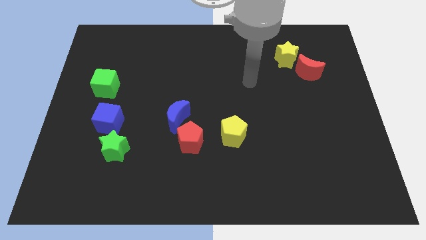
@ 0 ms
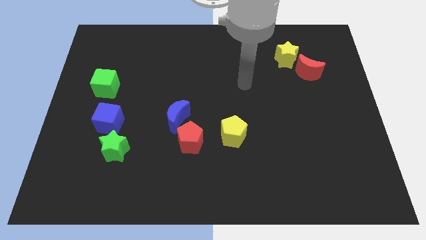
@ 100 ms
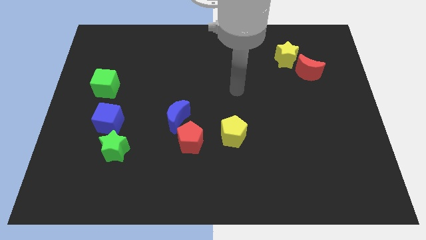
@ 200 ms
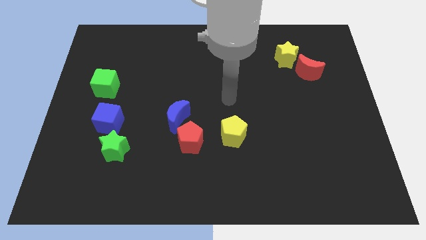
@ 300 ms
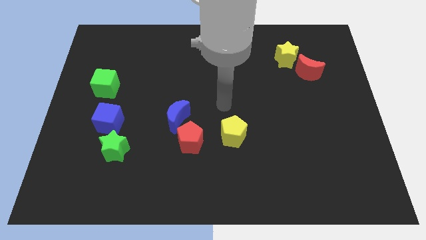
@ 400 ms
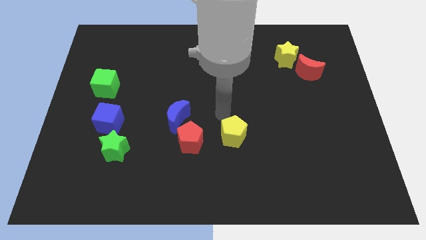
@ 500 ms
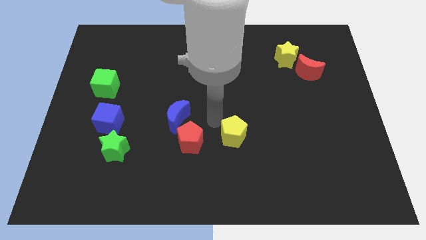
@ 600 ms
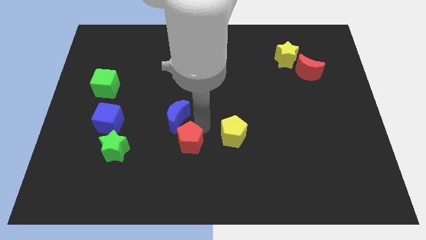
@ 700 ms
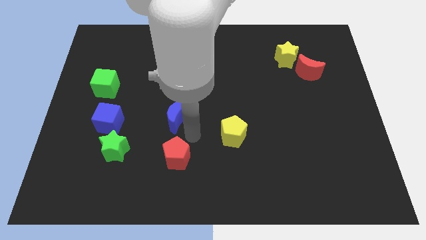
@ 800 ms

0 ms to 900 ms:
separate the blue moon from the red pentagon

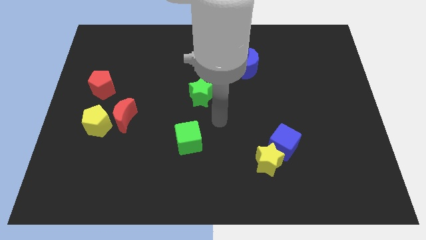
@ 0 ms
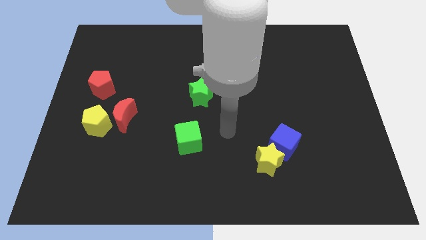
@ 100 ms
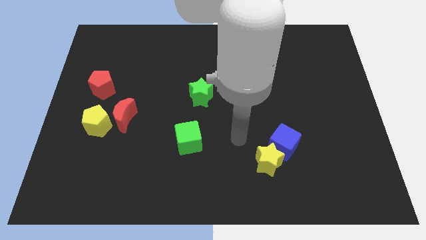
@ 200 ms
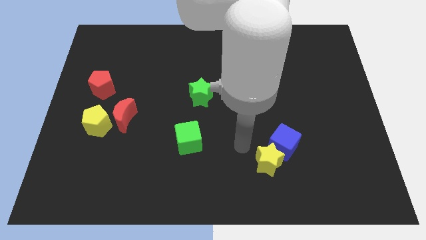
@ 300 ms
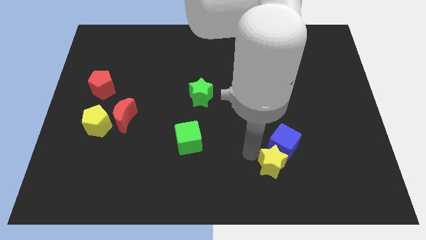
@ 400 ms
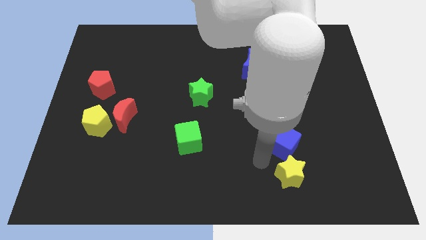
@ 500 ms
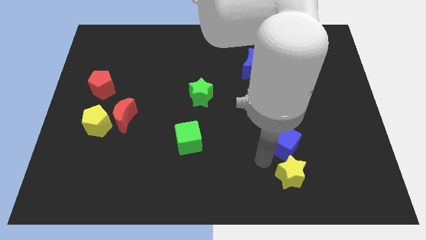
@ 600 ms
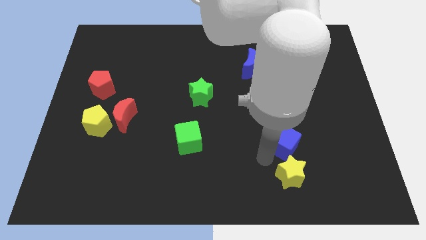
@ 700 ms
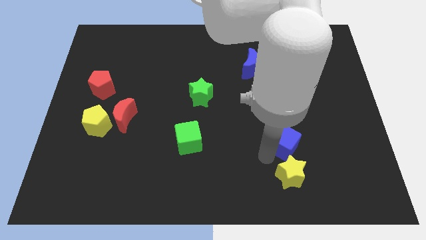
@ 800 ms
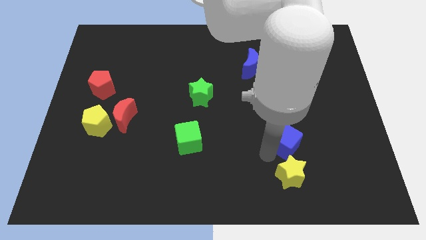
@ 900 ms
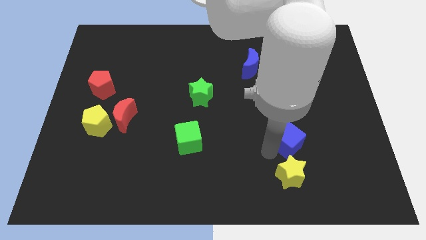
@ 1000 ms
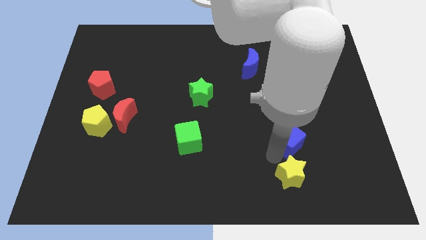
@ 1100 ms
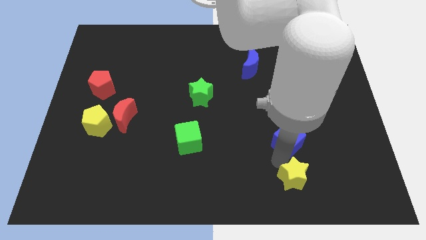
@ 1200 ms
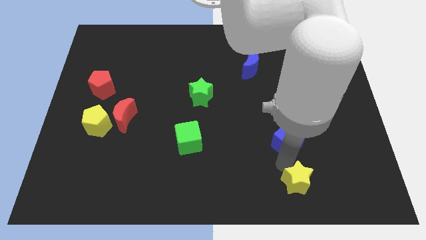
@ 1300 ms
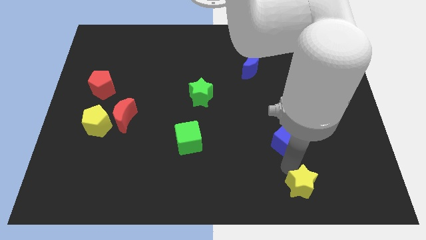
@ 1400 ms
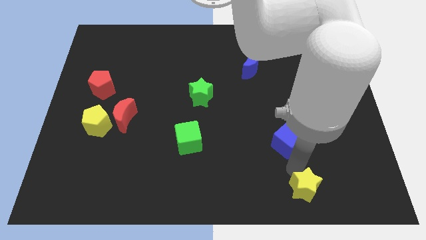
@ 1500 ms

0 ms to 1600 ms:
move the blue cube away from the yellow star

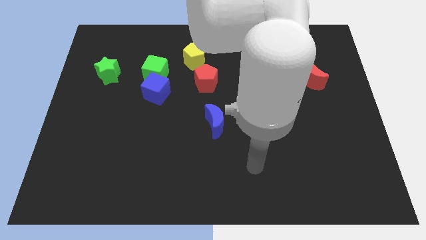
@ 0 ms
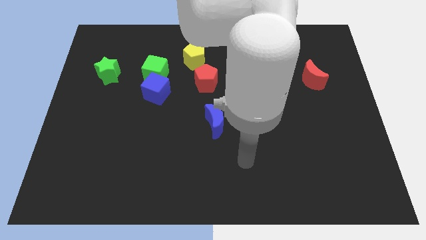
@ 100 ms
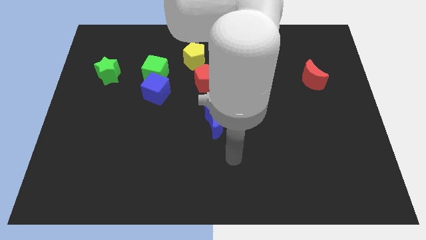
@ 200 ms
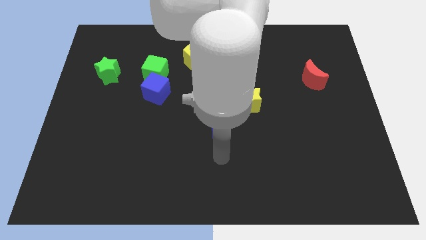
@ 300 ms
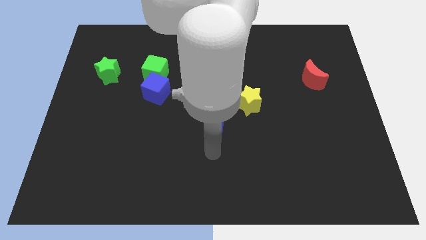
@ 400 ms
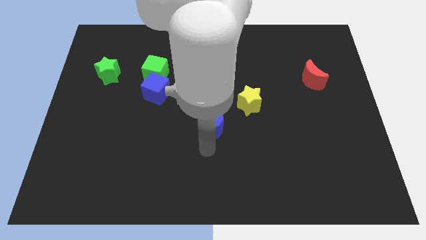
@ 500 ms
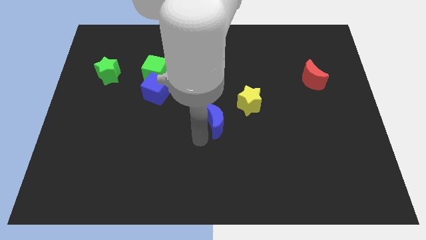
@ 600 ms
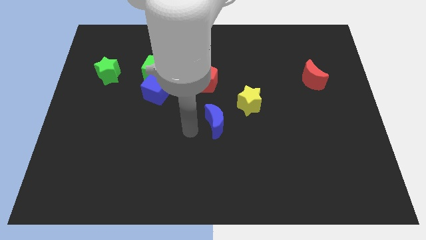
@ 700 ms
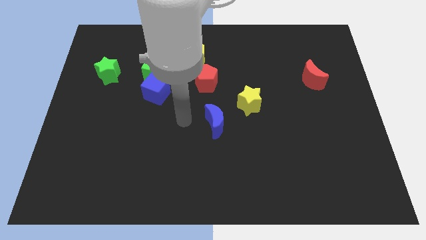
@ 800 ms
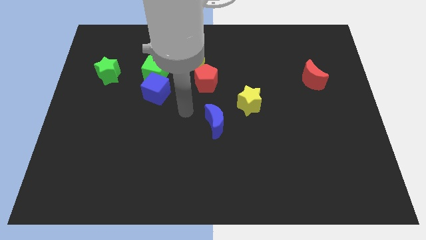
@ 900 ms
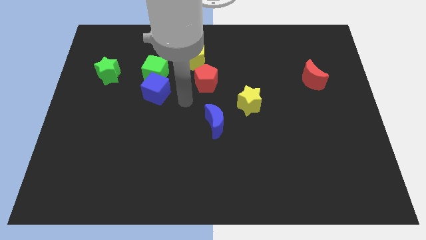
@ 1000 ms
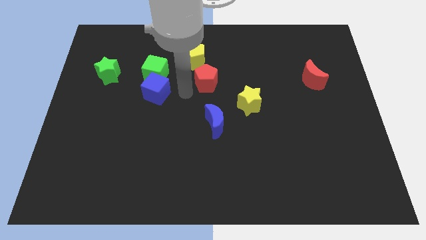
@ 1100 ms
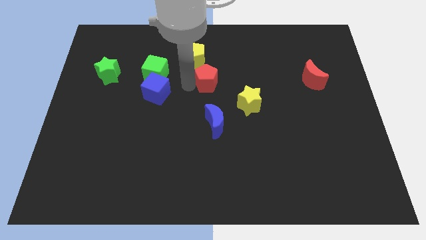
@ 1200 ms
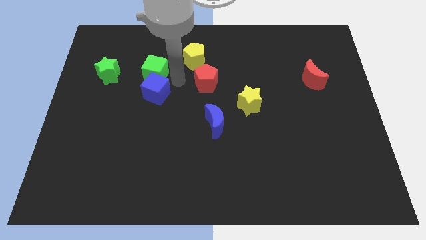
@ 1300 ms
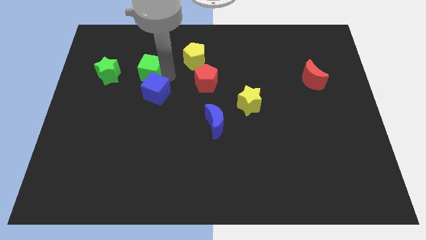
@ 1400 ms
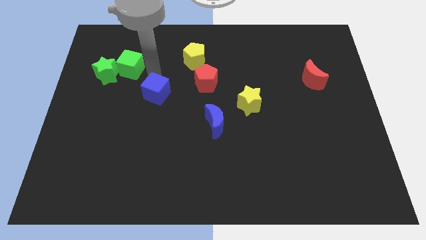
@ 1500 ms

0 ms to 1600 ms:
separate the blue cube from the green cube

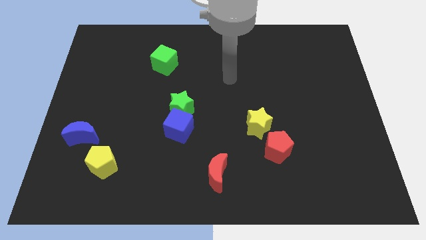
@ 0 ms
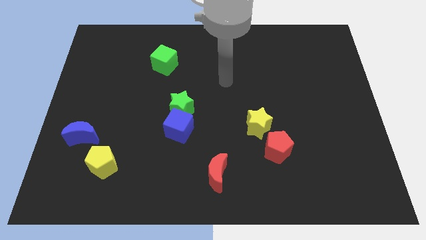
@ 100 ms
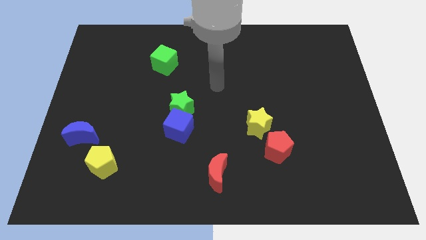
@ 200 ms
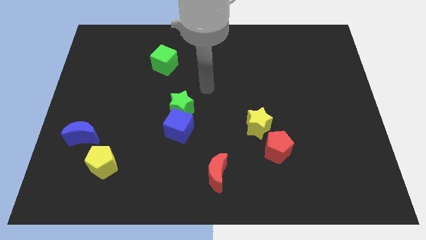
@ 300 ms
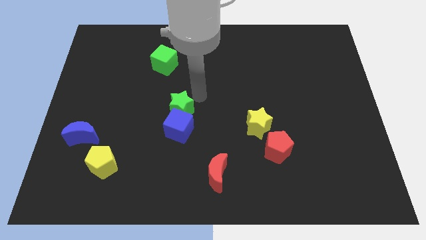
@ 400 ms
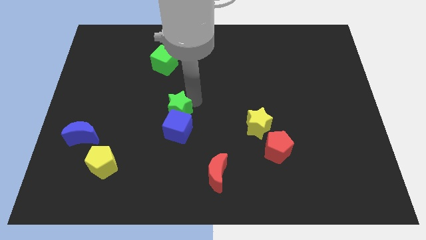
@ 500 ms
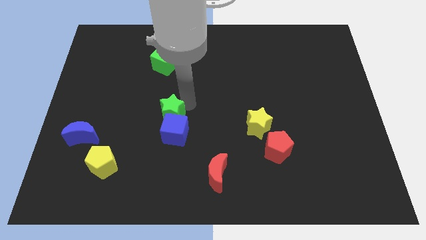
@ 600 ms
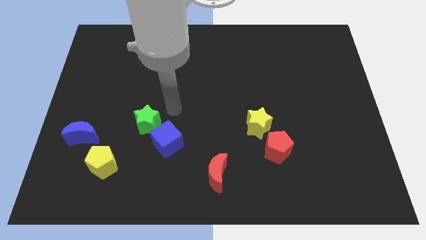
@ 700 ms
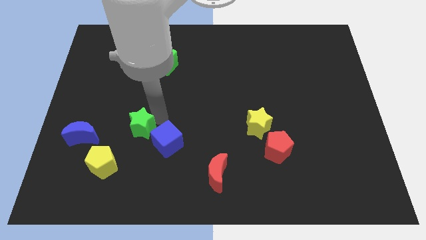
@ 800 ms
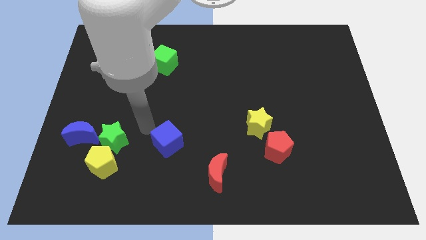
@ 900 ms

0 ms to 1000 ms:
pull the blue cube apart from the green star

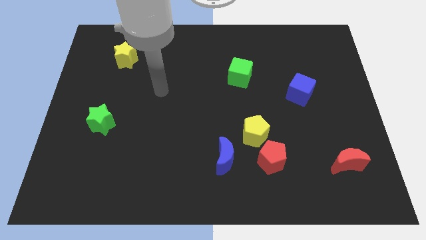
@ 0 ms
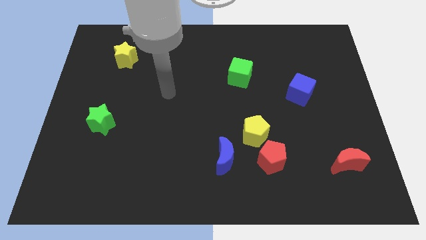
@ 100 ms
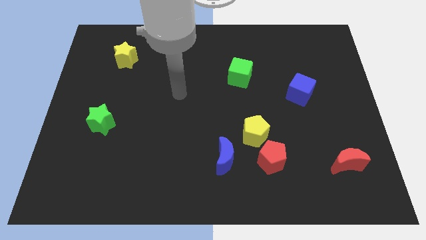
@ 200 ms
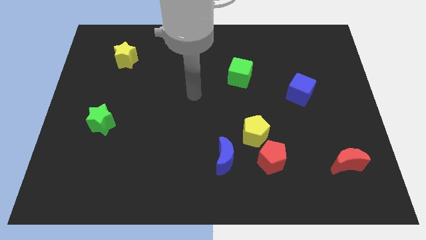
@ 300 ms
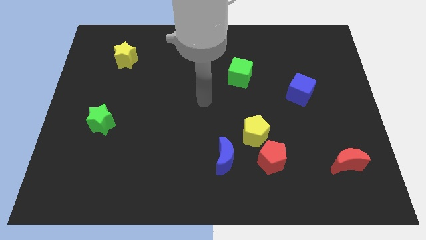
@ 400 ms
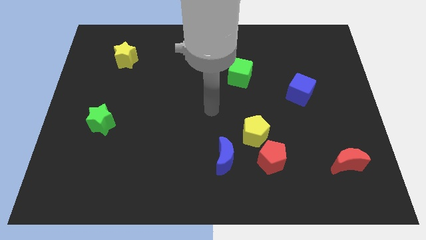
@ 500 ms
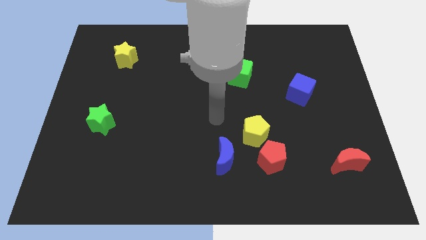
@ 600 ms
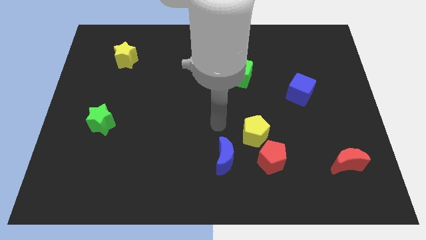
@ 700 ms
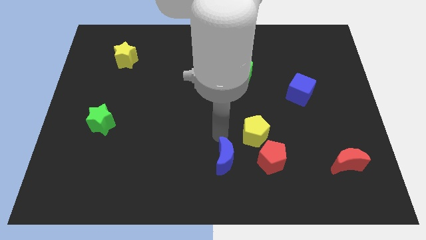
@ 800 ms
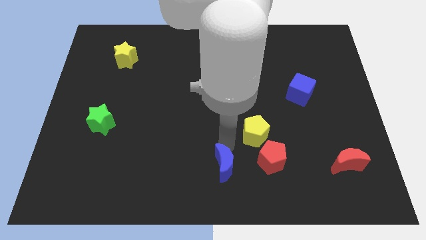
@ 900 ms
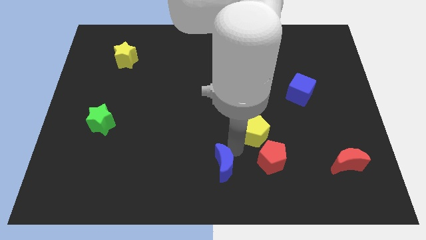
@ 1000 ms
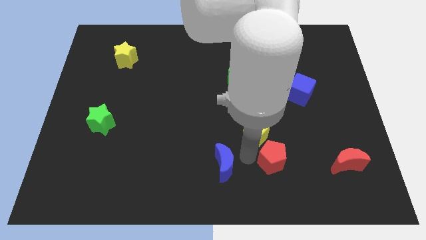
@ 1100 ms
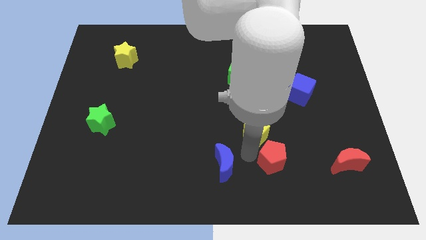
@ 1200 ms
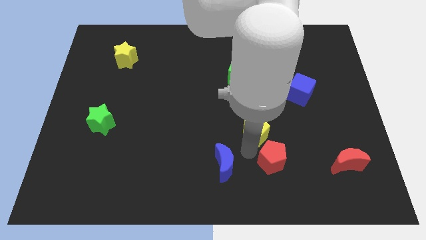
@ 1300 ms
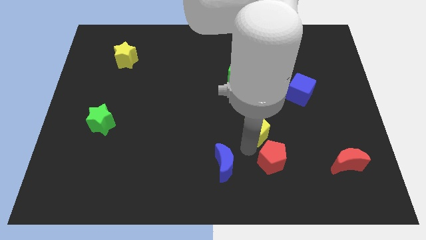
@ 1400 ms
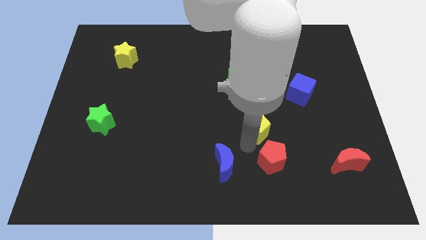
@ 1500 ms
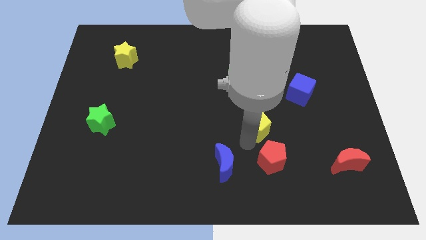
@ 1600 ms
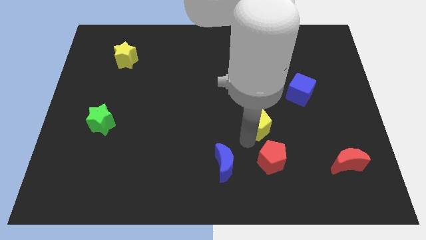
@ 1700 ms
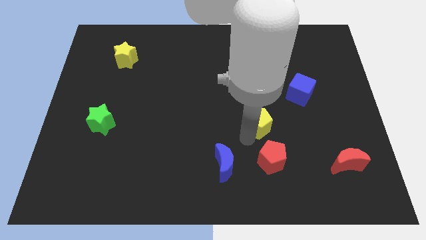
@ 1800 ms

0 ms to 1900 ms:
pull the yellow pentagon apart from the red pentagon and blue moon

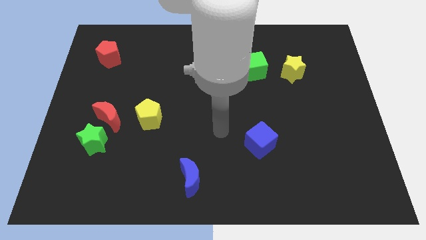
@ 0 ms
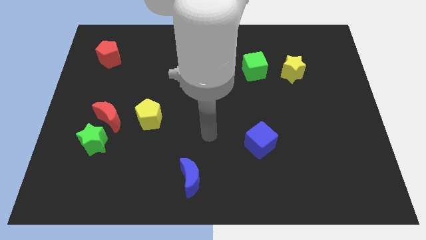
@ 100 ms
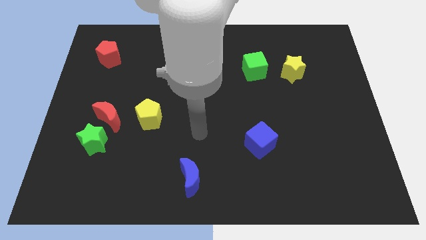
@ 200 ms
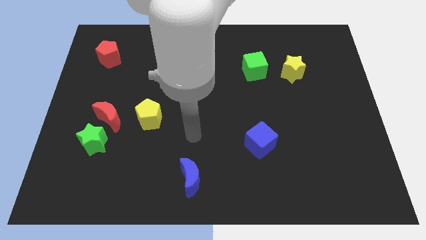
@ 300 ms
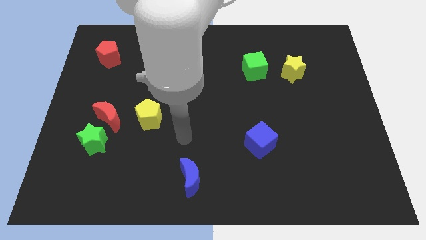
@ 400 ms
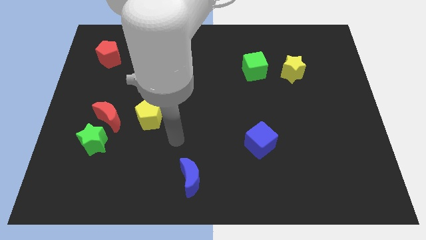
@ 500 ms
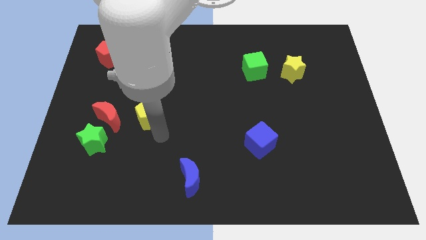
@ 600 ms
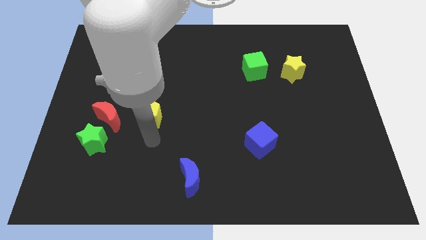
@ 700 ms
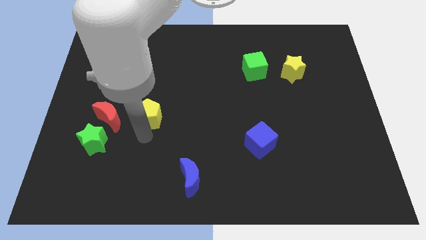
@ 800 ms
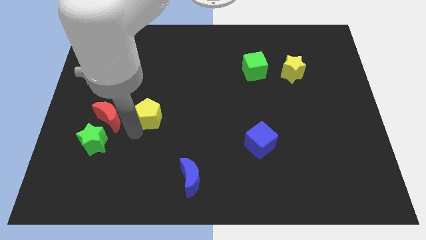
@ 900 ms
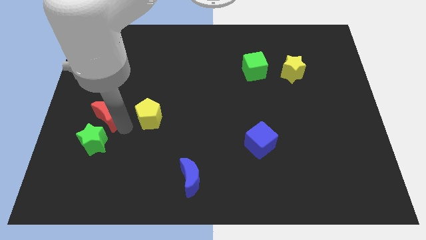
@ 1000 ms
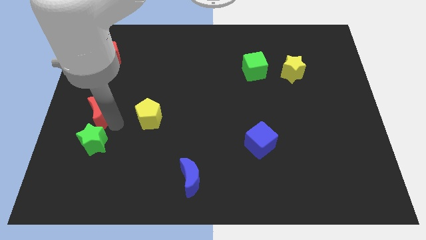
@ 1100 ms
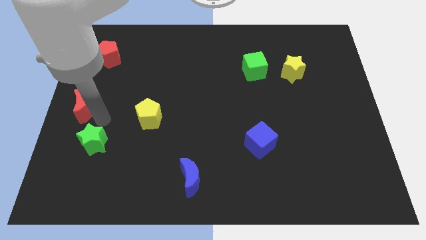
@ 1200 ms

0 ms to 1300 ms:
move the green star away from the red moon

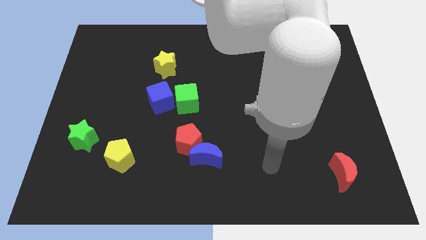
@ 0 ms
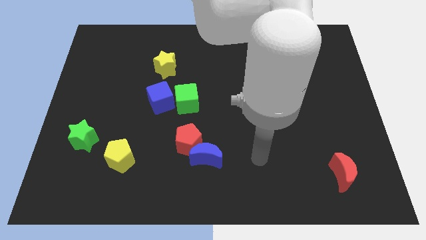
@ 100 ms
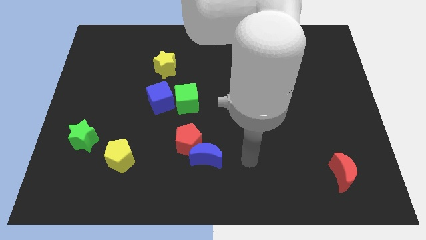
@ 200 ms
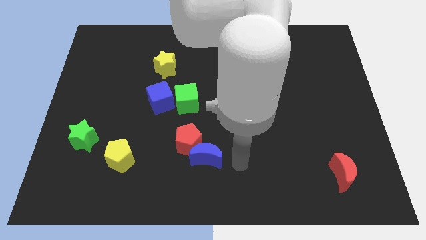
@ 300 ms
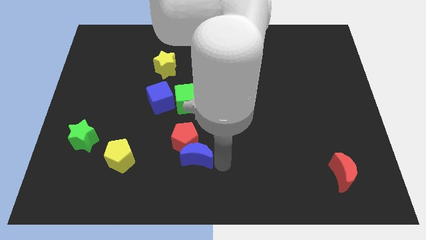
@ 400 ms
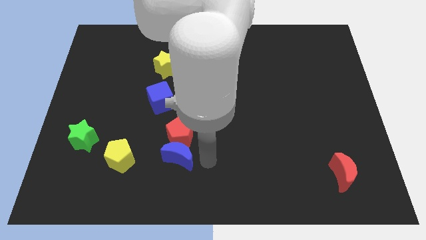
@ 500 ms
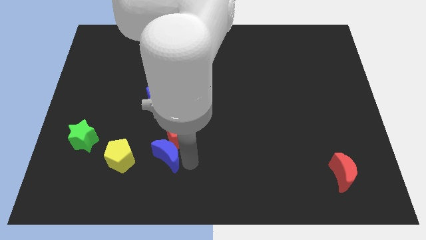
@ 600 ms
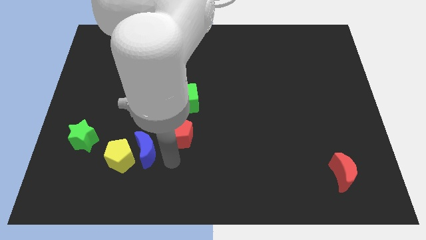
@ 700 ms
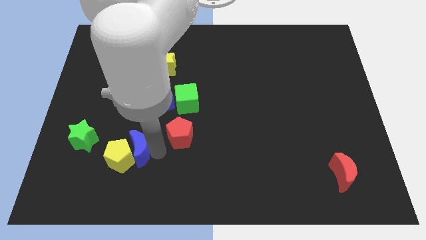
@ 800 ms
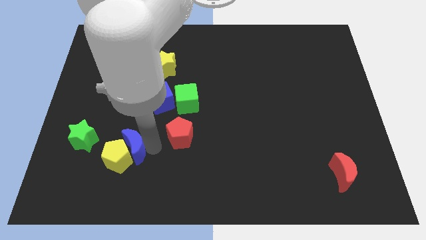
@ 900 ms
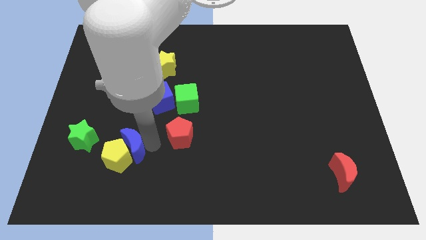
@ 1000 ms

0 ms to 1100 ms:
separate the red pentagon from the blue moon
